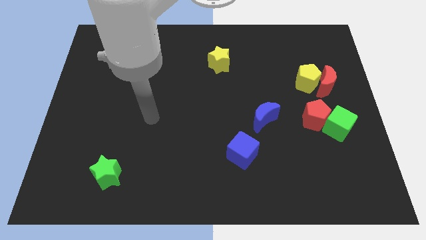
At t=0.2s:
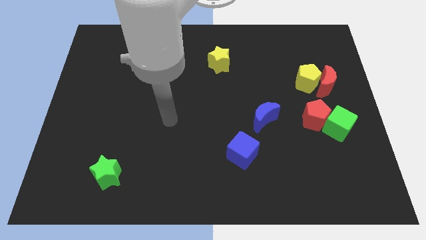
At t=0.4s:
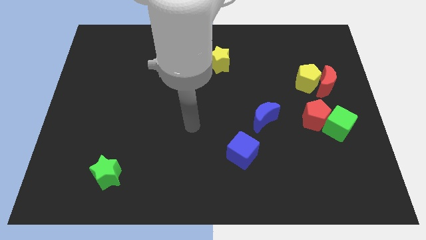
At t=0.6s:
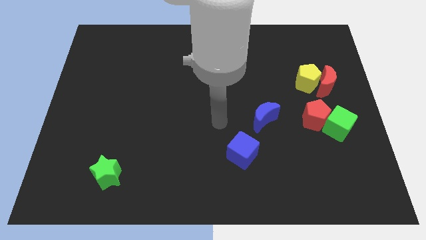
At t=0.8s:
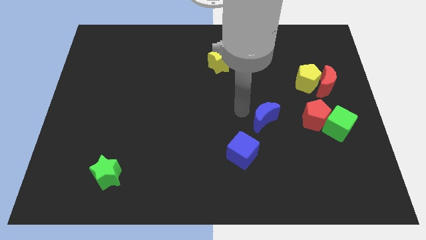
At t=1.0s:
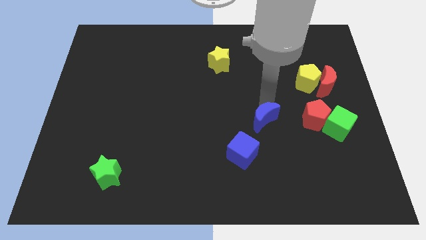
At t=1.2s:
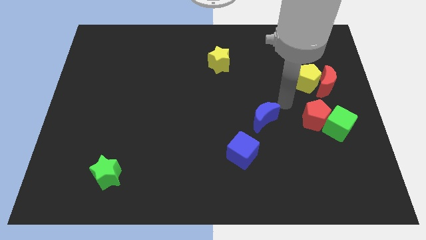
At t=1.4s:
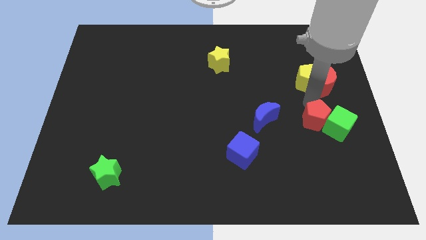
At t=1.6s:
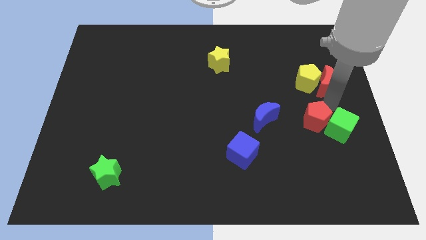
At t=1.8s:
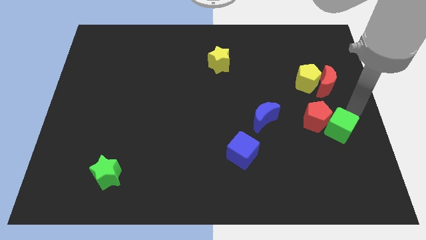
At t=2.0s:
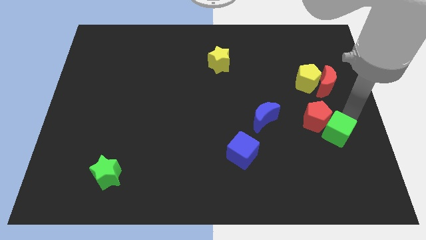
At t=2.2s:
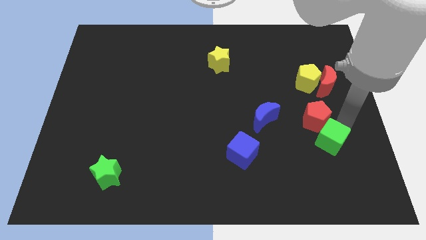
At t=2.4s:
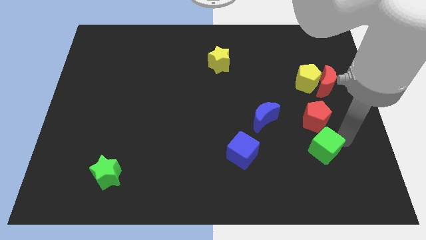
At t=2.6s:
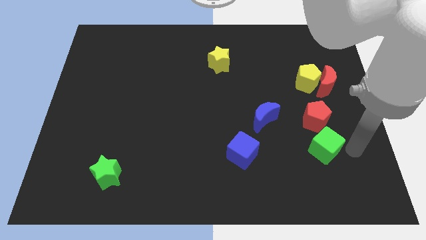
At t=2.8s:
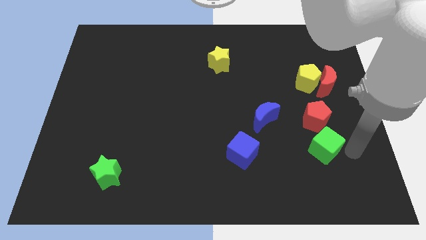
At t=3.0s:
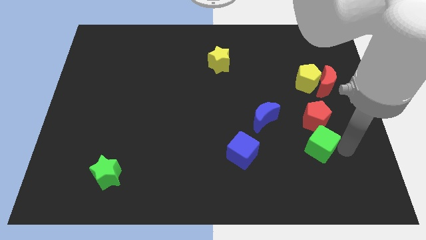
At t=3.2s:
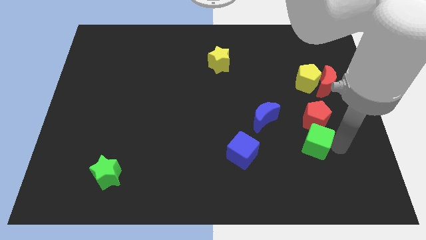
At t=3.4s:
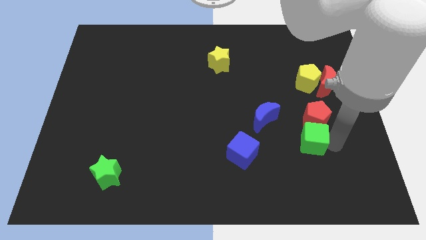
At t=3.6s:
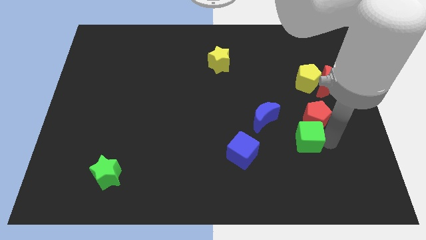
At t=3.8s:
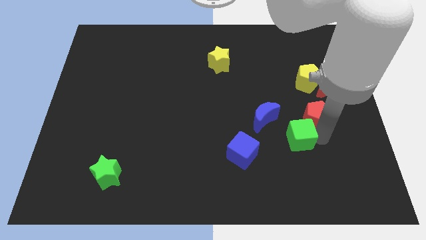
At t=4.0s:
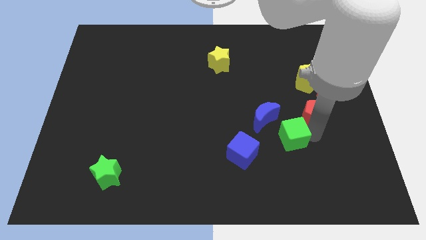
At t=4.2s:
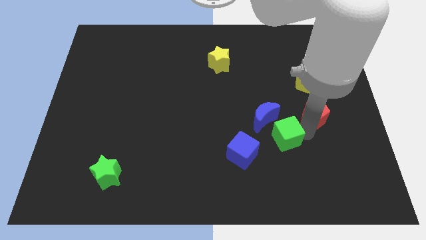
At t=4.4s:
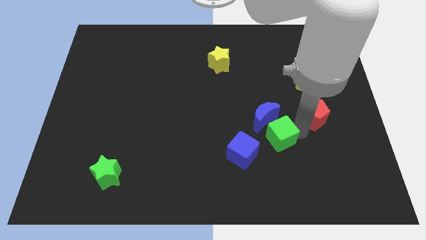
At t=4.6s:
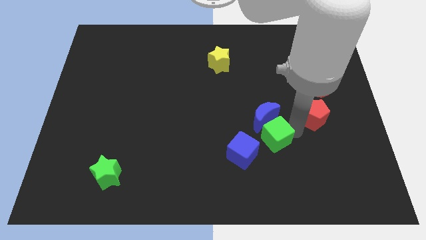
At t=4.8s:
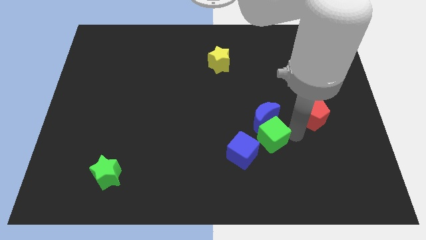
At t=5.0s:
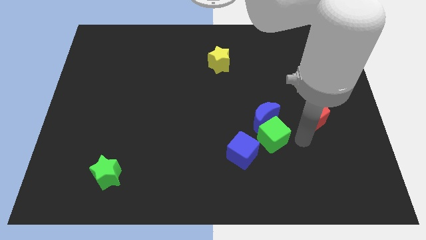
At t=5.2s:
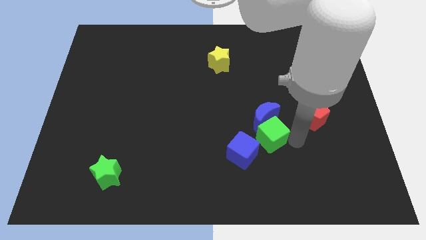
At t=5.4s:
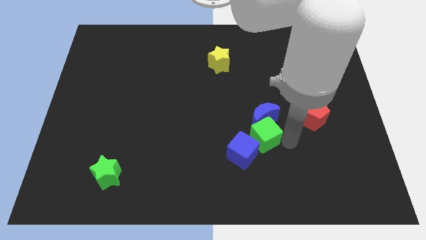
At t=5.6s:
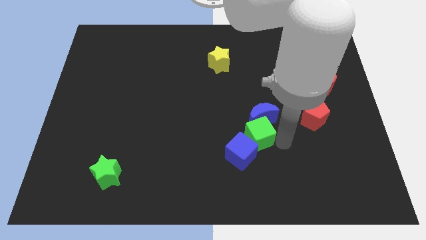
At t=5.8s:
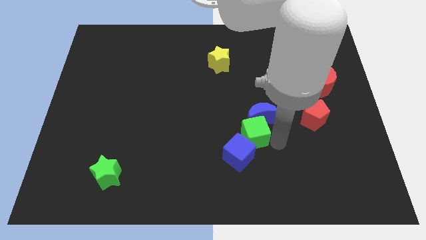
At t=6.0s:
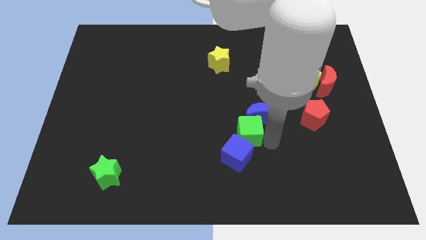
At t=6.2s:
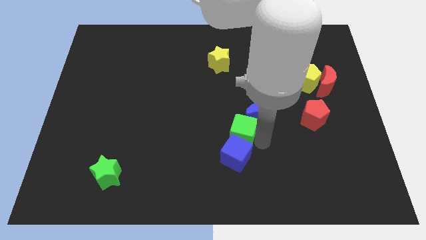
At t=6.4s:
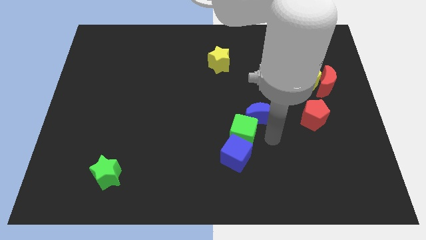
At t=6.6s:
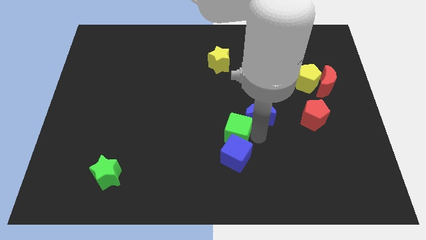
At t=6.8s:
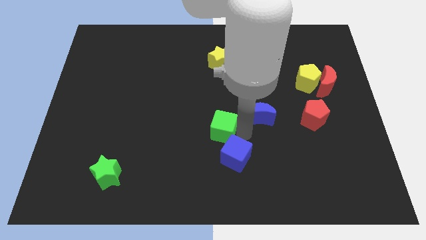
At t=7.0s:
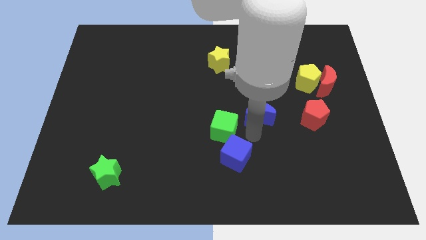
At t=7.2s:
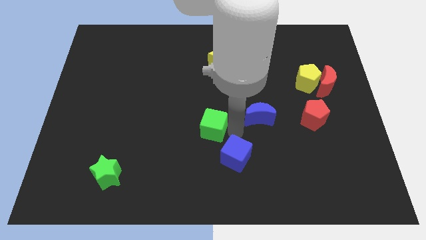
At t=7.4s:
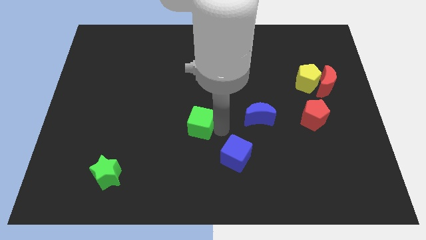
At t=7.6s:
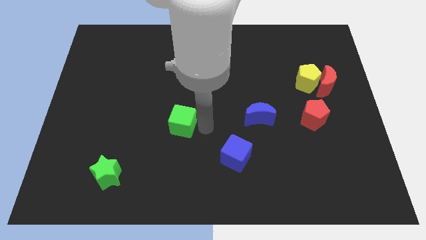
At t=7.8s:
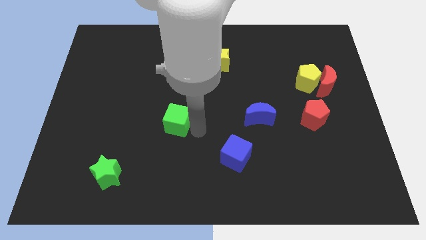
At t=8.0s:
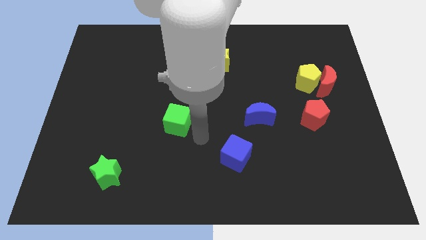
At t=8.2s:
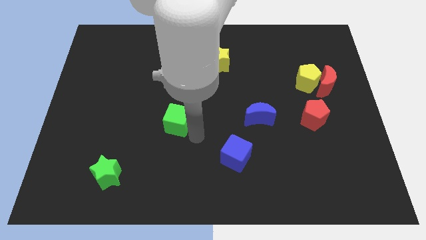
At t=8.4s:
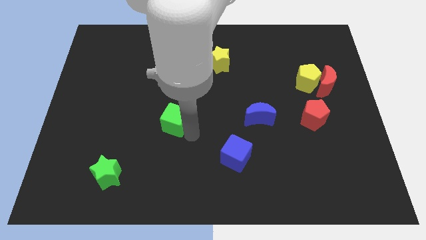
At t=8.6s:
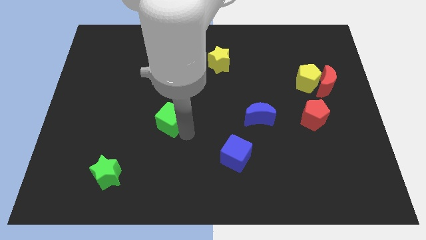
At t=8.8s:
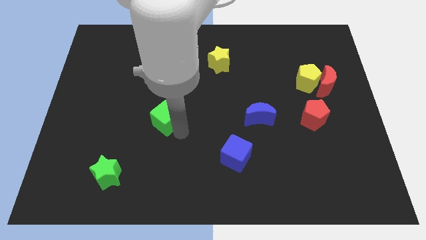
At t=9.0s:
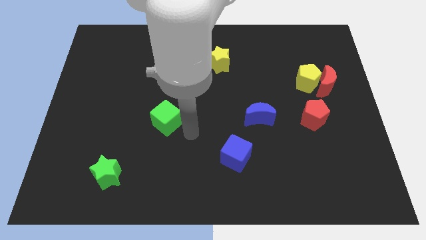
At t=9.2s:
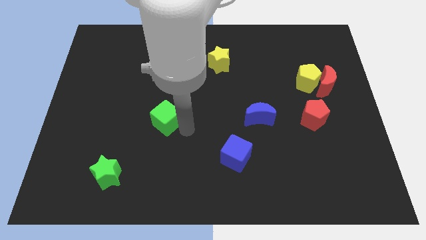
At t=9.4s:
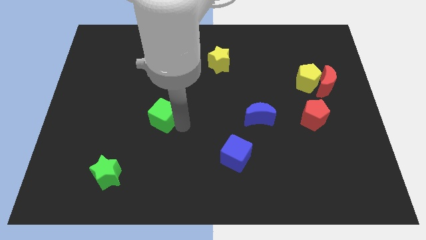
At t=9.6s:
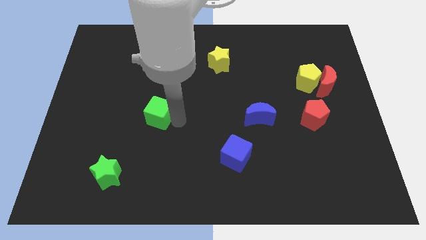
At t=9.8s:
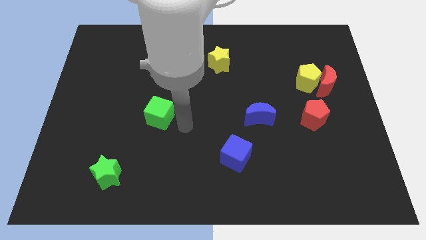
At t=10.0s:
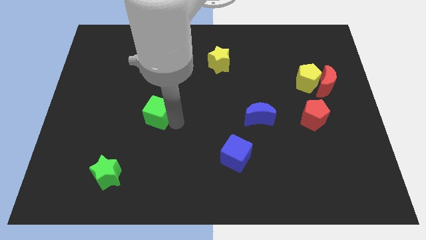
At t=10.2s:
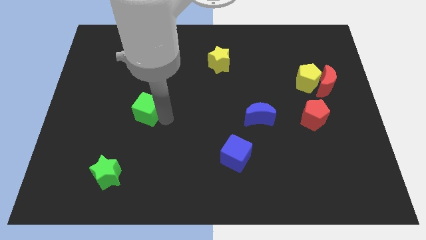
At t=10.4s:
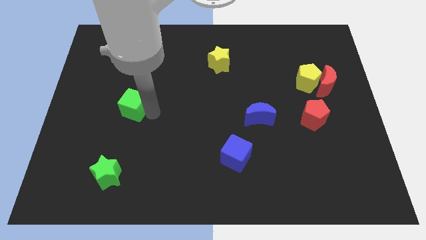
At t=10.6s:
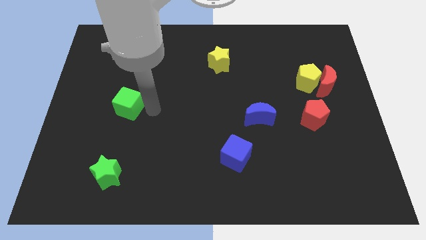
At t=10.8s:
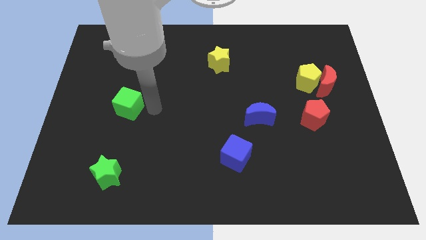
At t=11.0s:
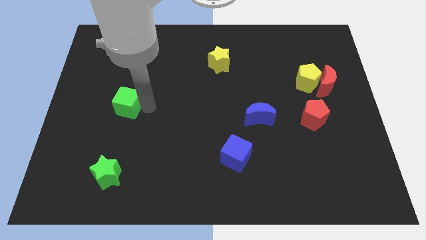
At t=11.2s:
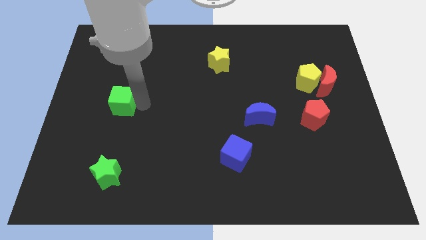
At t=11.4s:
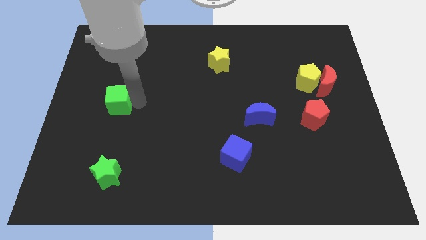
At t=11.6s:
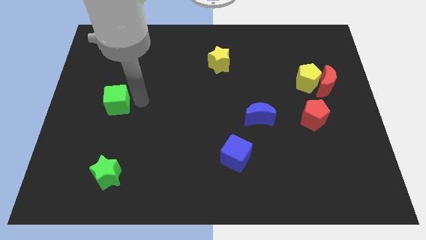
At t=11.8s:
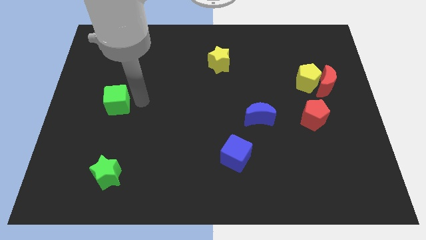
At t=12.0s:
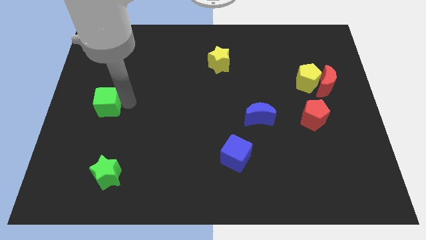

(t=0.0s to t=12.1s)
move the green cube to the center left

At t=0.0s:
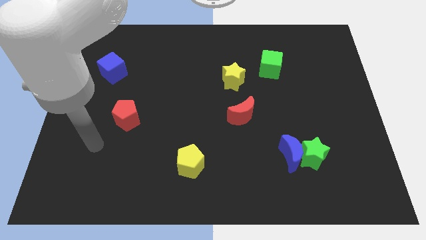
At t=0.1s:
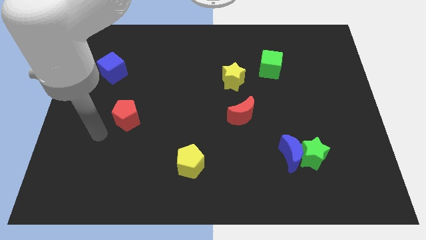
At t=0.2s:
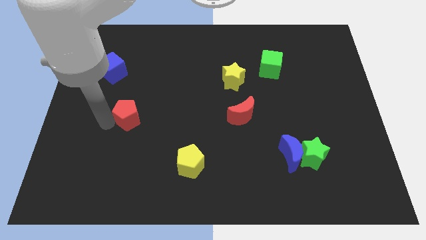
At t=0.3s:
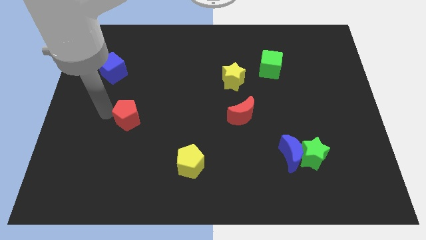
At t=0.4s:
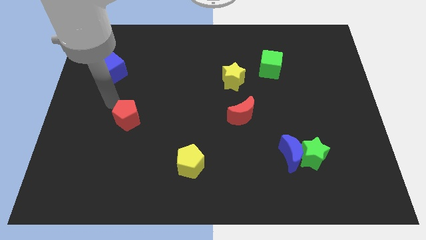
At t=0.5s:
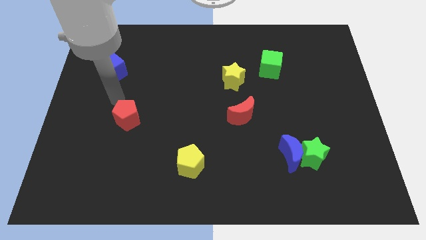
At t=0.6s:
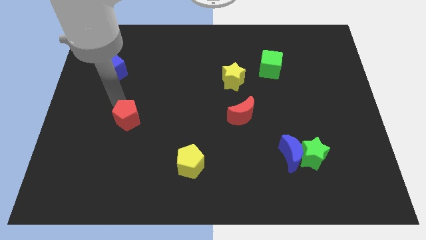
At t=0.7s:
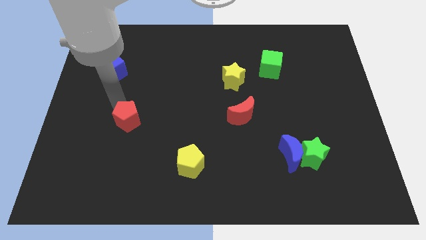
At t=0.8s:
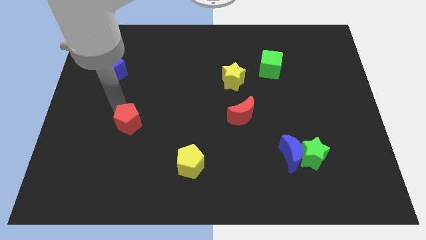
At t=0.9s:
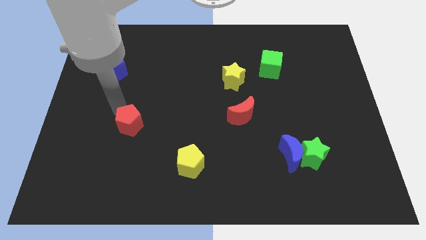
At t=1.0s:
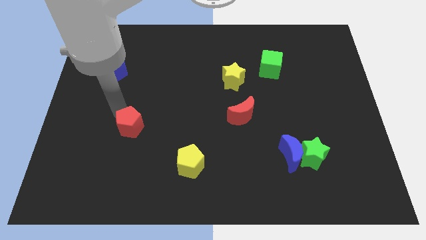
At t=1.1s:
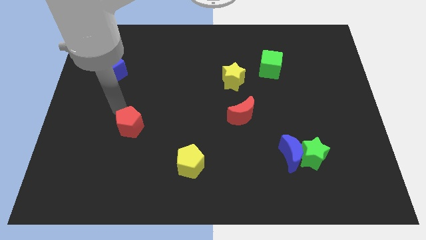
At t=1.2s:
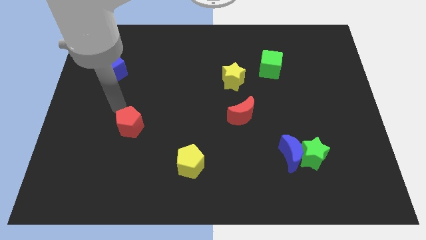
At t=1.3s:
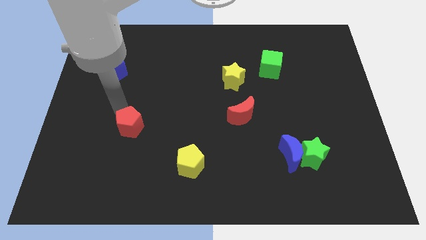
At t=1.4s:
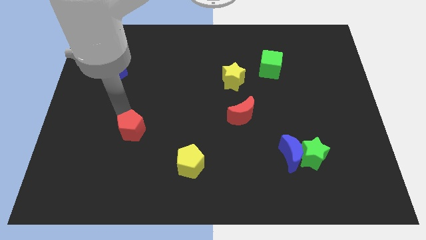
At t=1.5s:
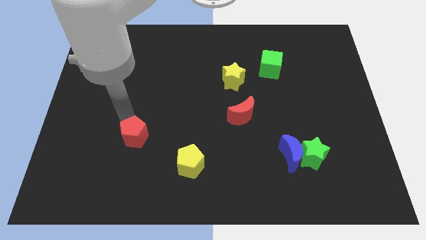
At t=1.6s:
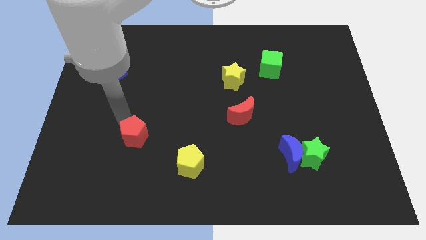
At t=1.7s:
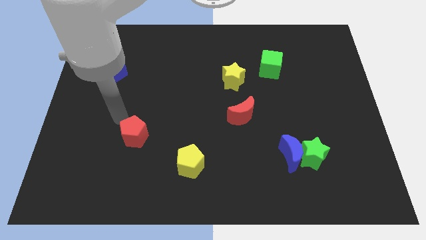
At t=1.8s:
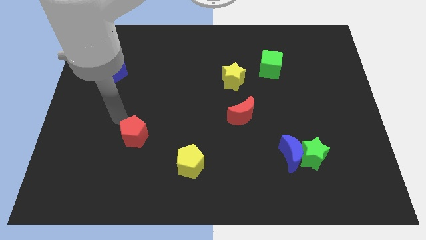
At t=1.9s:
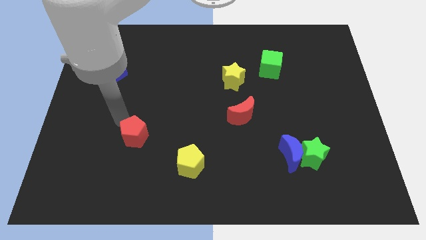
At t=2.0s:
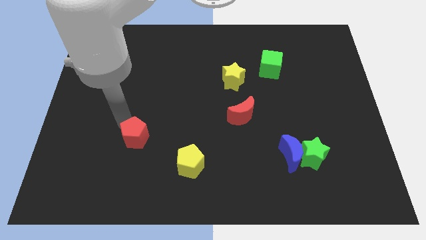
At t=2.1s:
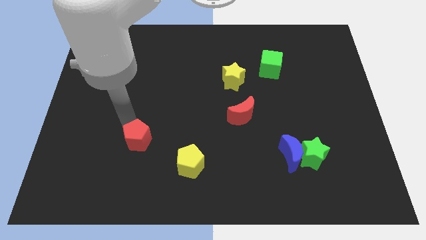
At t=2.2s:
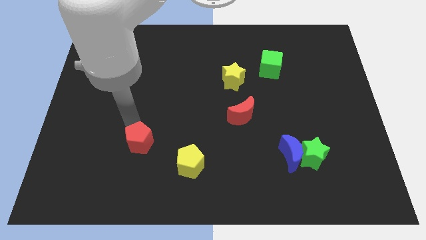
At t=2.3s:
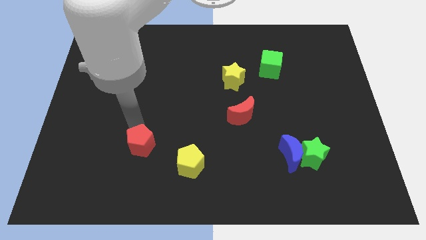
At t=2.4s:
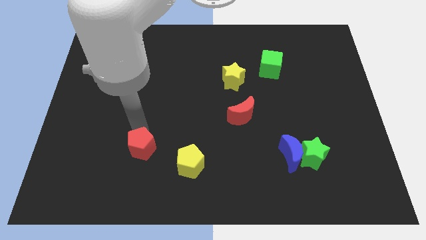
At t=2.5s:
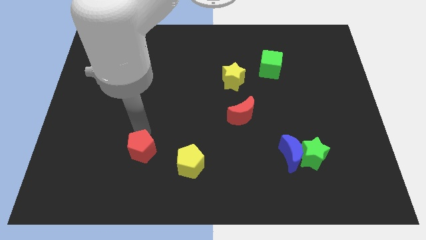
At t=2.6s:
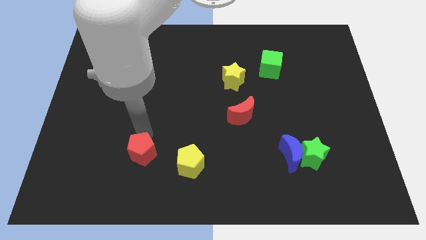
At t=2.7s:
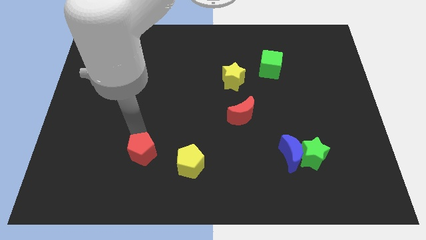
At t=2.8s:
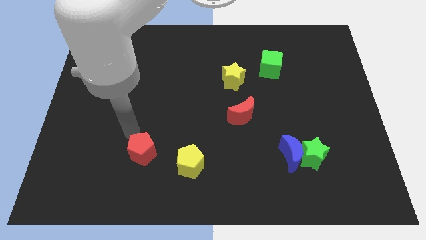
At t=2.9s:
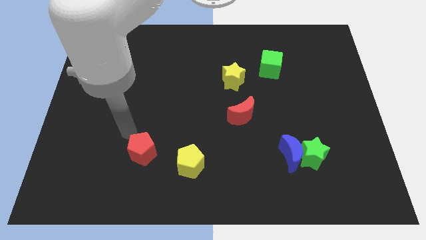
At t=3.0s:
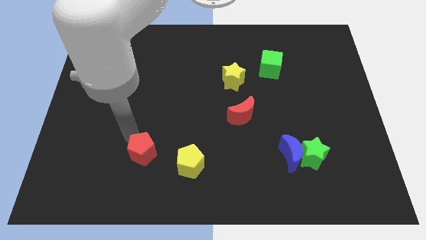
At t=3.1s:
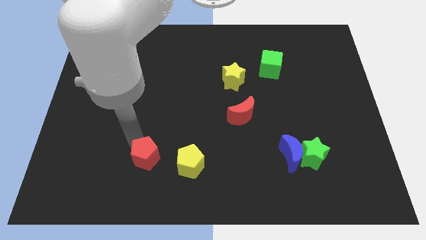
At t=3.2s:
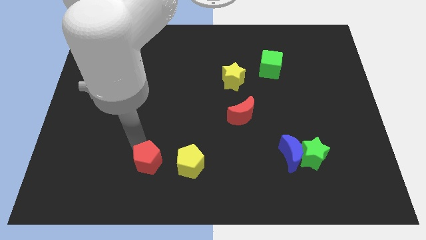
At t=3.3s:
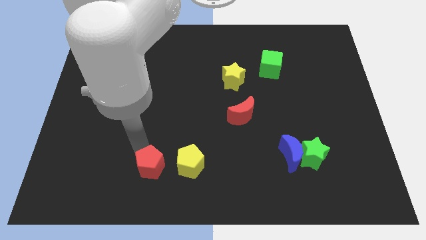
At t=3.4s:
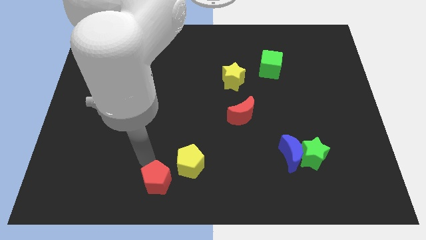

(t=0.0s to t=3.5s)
put the red pentagon to the bottom side
